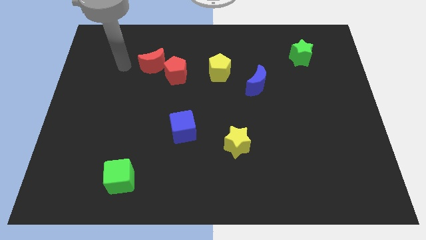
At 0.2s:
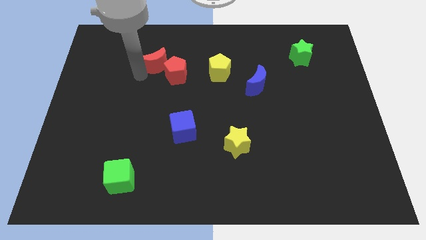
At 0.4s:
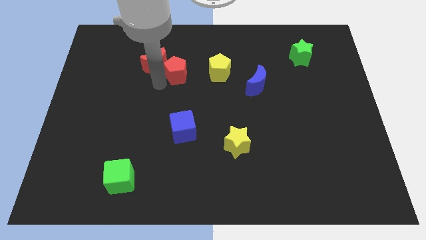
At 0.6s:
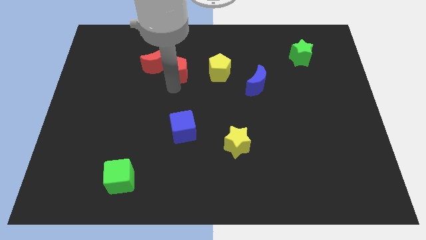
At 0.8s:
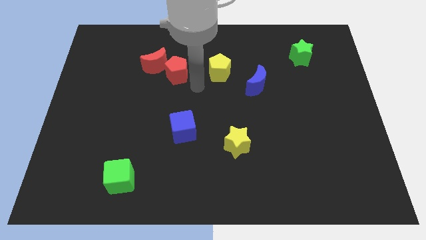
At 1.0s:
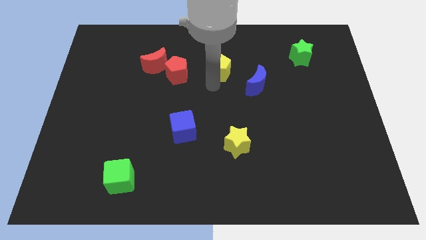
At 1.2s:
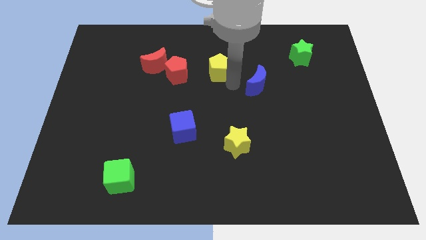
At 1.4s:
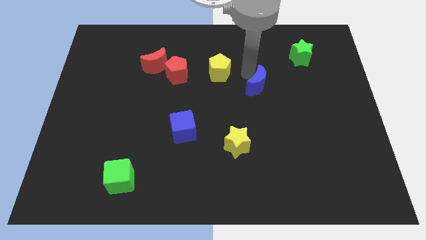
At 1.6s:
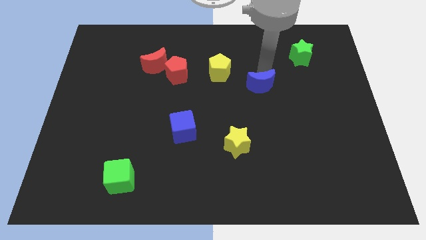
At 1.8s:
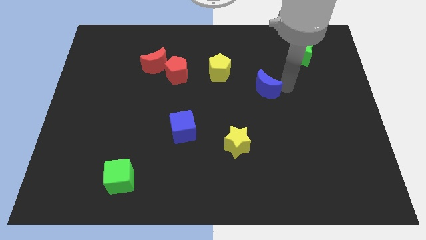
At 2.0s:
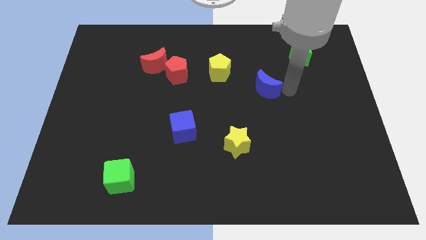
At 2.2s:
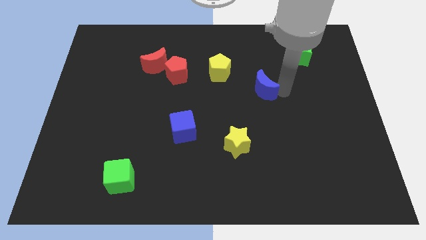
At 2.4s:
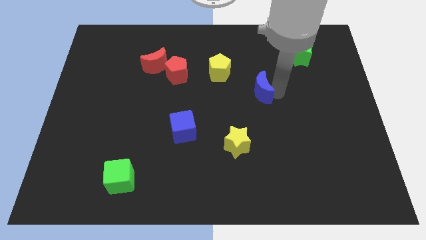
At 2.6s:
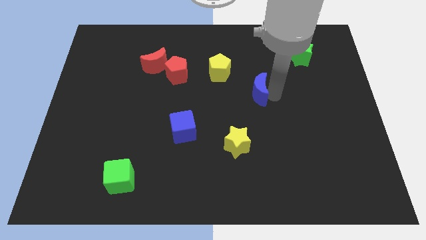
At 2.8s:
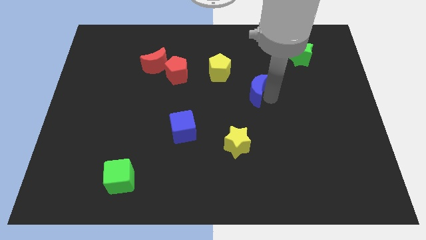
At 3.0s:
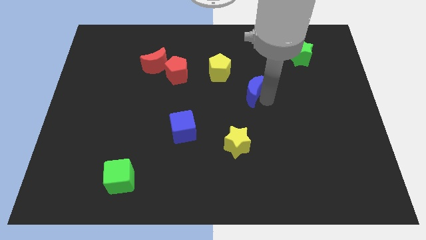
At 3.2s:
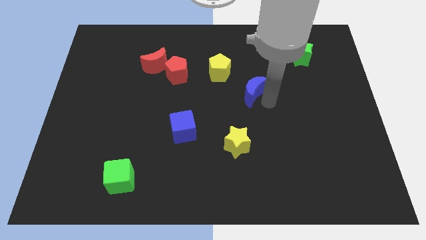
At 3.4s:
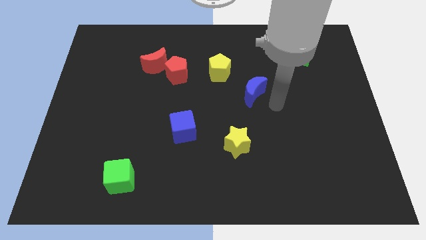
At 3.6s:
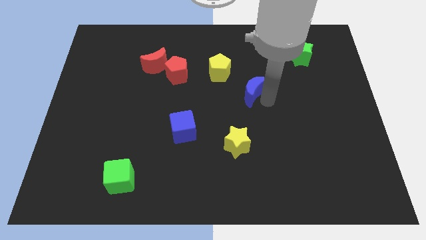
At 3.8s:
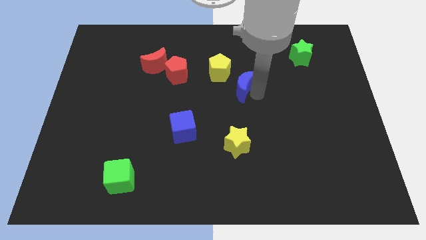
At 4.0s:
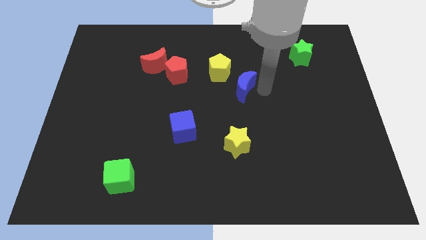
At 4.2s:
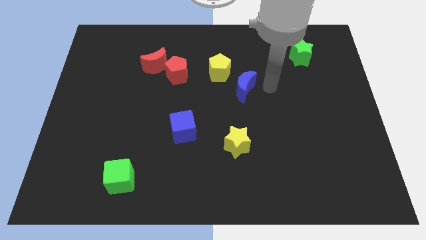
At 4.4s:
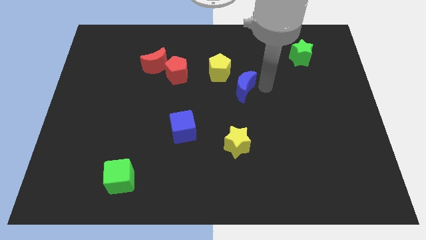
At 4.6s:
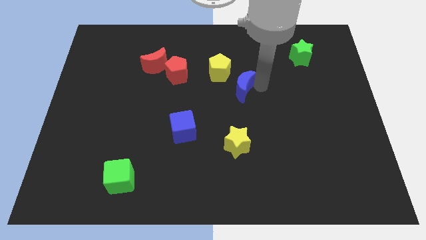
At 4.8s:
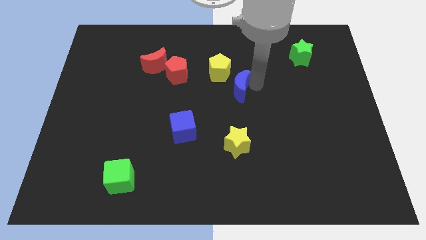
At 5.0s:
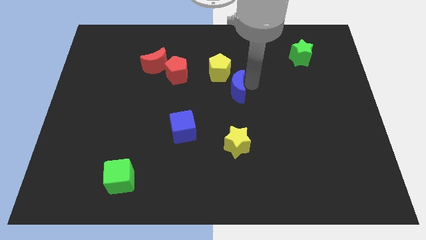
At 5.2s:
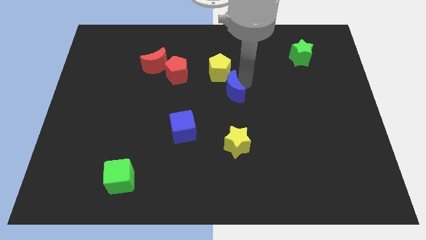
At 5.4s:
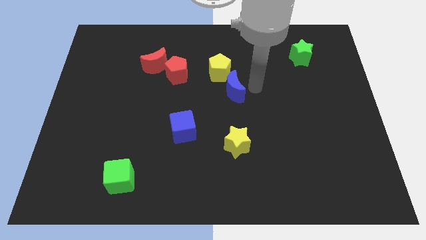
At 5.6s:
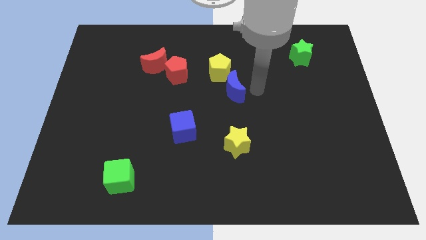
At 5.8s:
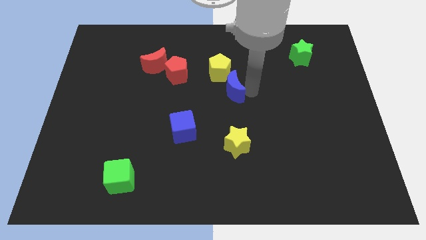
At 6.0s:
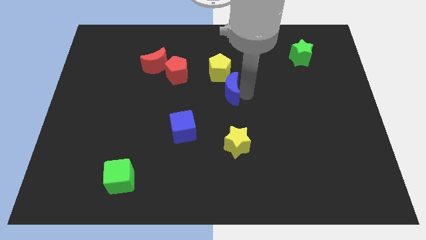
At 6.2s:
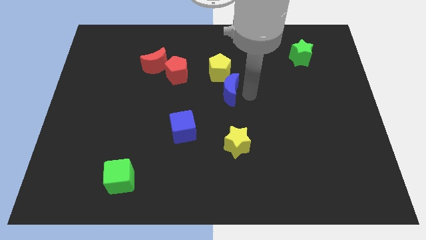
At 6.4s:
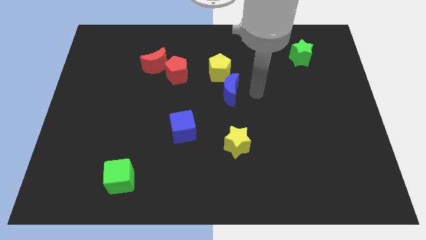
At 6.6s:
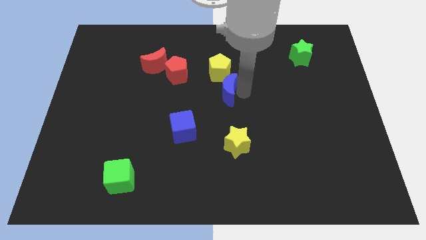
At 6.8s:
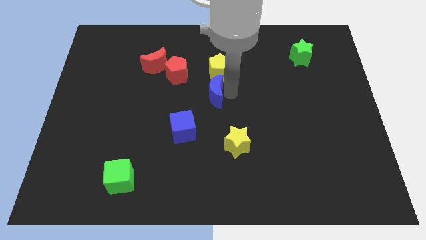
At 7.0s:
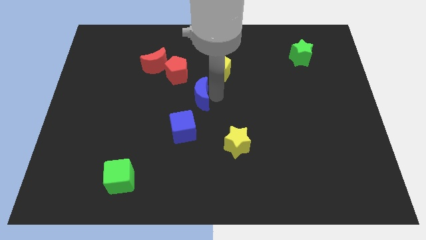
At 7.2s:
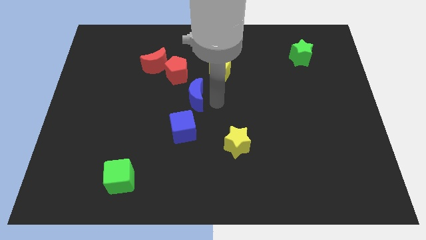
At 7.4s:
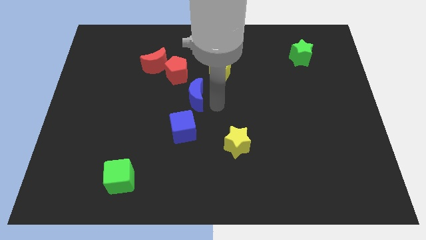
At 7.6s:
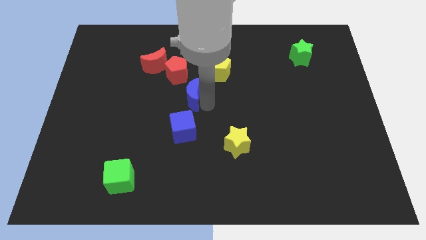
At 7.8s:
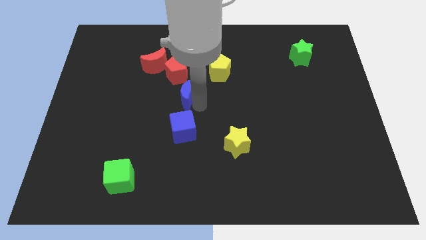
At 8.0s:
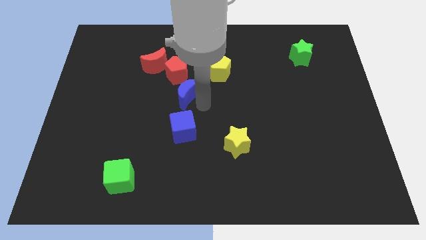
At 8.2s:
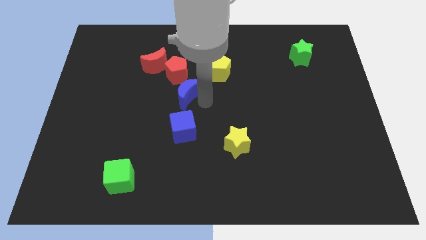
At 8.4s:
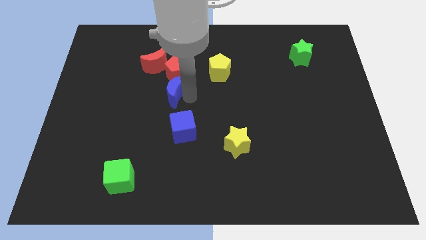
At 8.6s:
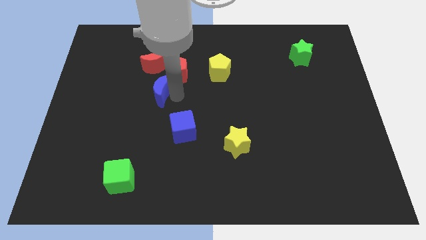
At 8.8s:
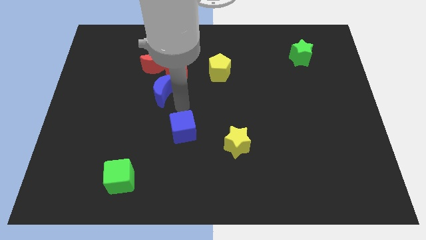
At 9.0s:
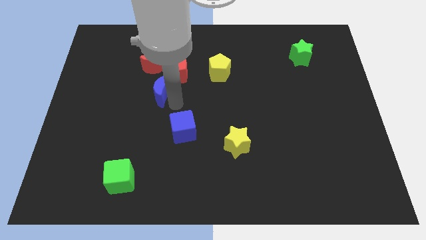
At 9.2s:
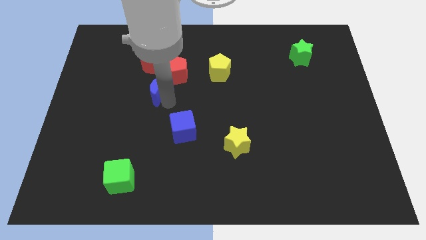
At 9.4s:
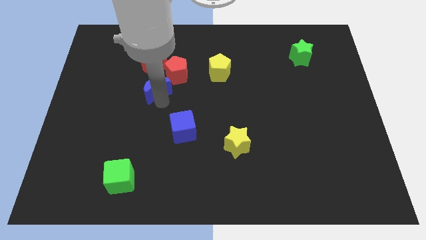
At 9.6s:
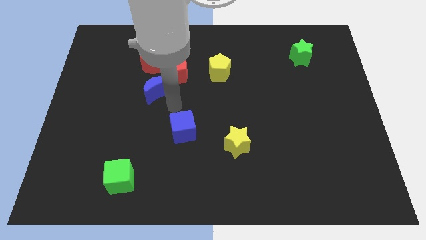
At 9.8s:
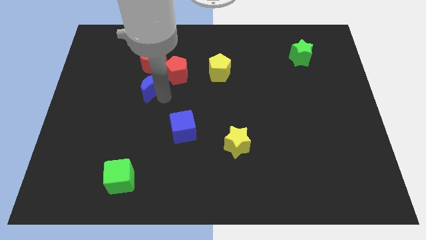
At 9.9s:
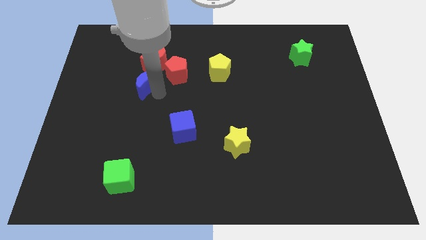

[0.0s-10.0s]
slide the blue moon to the left of the red pentagon

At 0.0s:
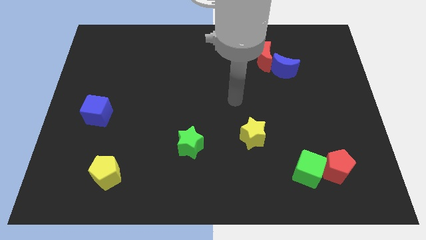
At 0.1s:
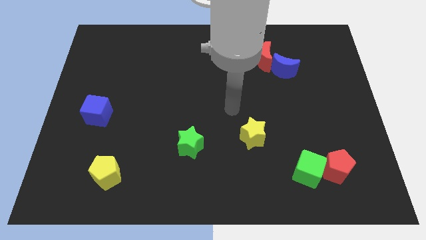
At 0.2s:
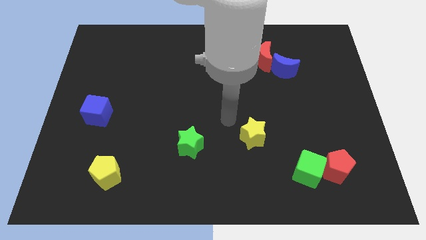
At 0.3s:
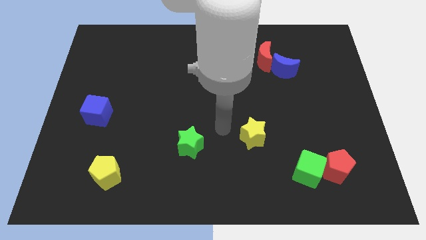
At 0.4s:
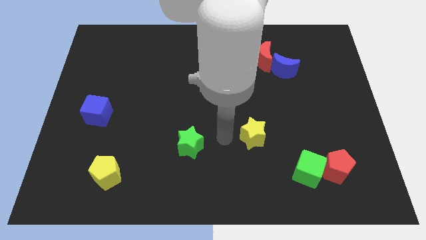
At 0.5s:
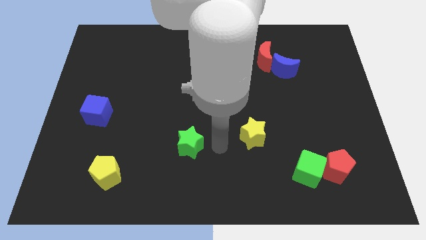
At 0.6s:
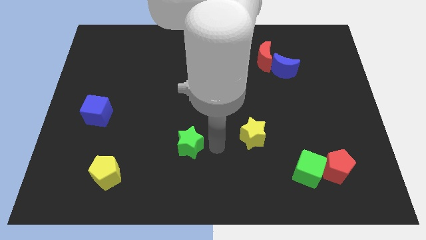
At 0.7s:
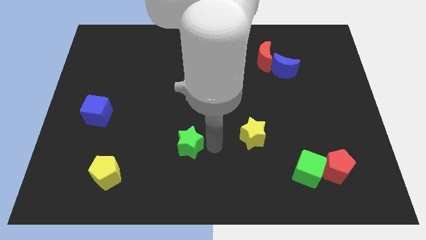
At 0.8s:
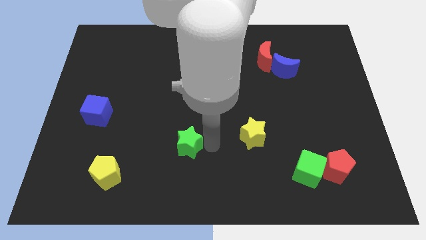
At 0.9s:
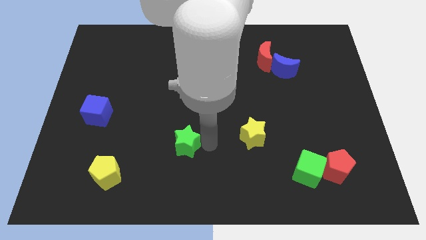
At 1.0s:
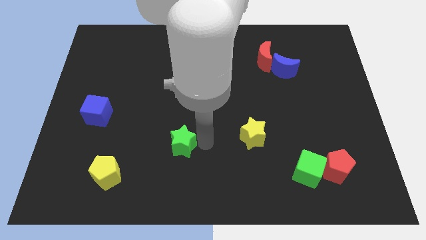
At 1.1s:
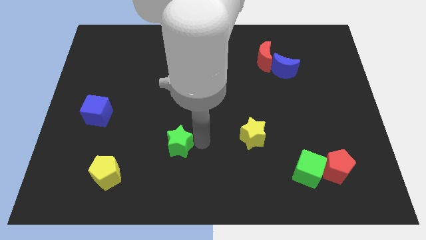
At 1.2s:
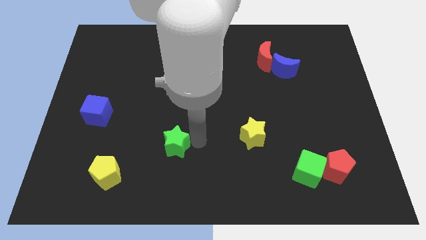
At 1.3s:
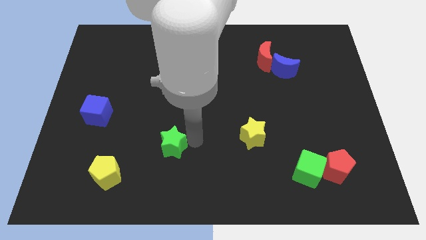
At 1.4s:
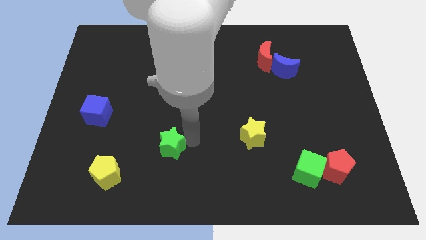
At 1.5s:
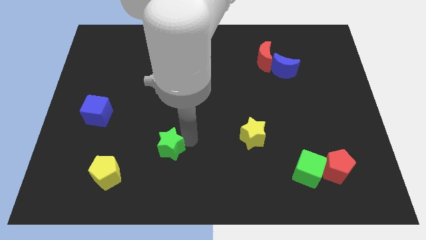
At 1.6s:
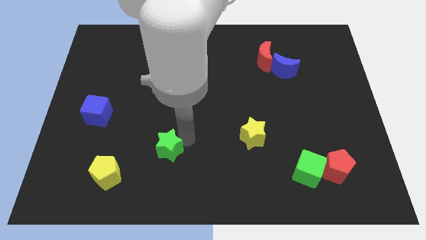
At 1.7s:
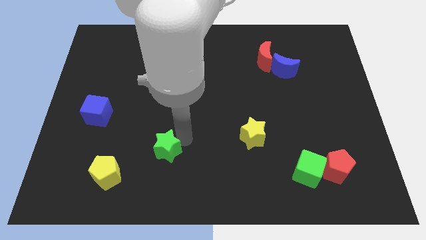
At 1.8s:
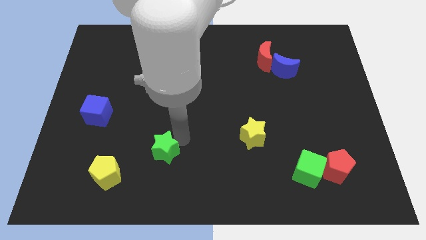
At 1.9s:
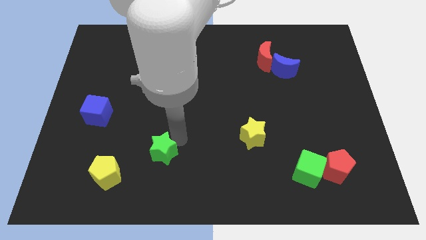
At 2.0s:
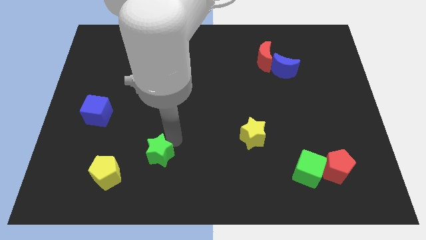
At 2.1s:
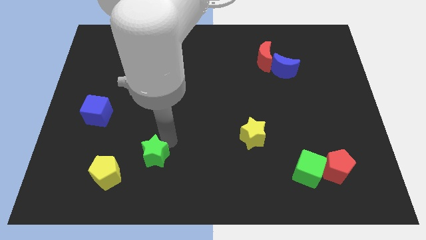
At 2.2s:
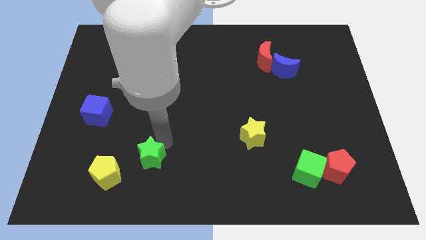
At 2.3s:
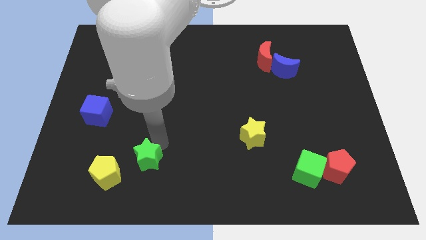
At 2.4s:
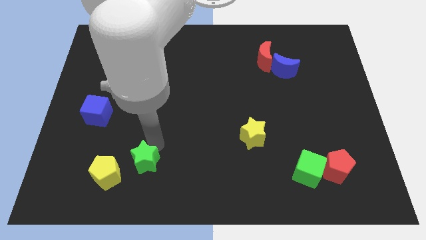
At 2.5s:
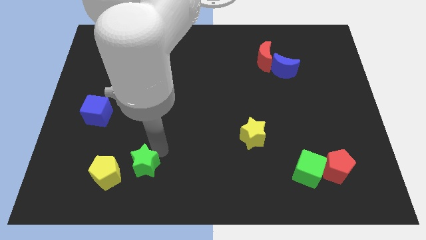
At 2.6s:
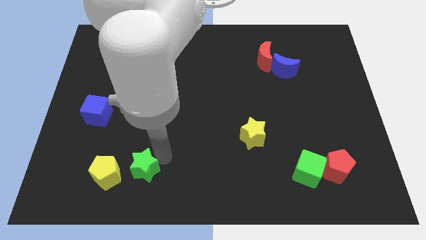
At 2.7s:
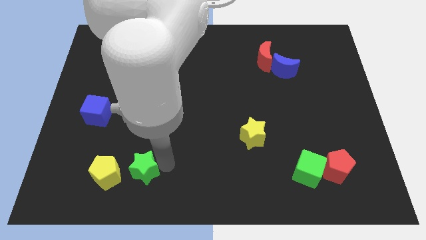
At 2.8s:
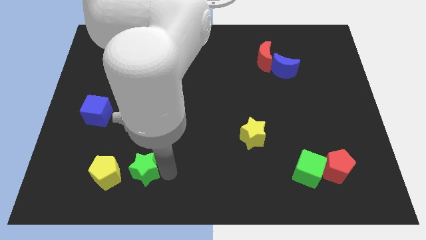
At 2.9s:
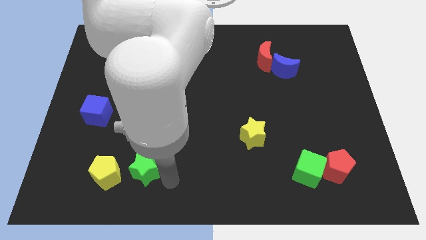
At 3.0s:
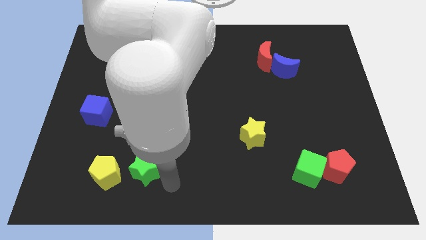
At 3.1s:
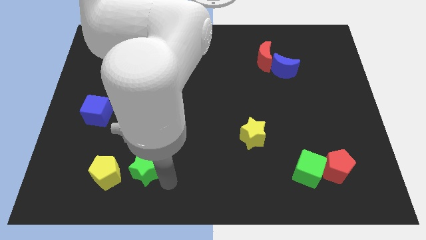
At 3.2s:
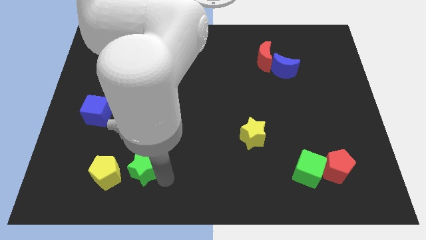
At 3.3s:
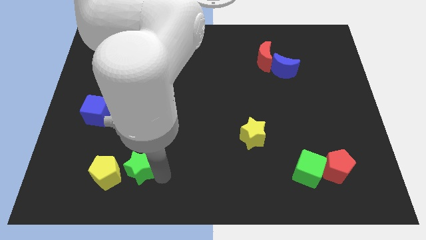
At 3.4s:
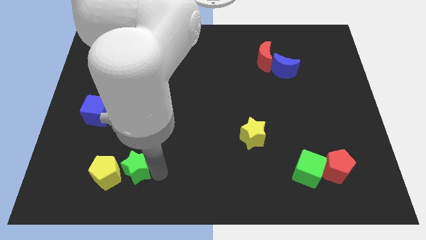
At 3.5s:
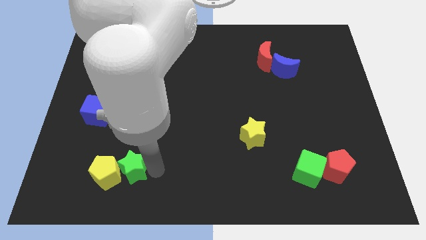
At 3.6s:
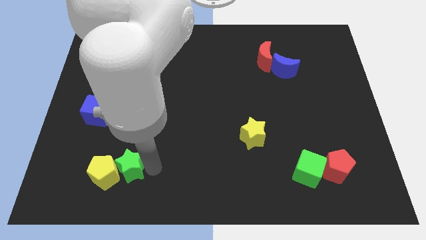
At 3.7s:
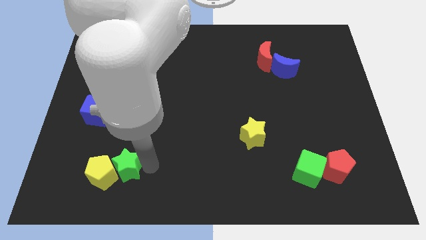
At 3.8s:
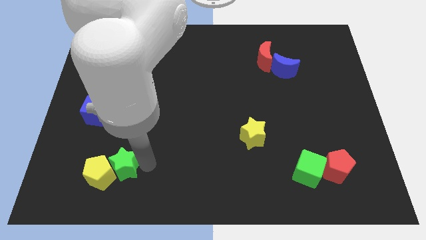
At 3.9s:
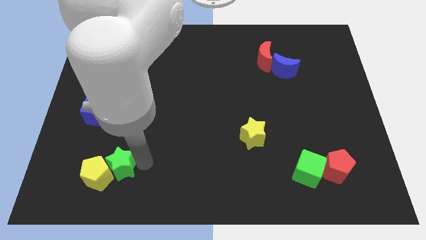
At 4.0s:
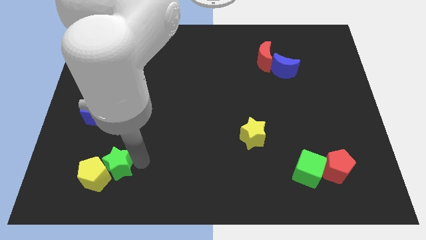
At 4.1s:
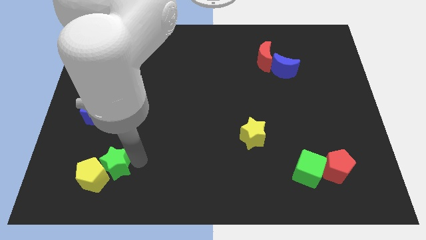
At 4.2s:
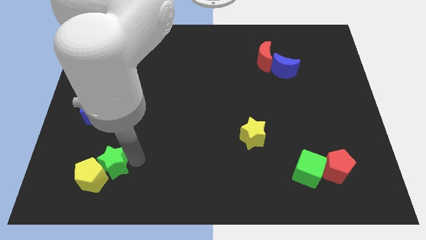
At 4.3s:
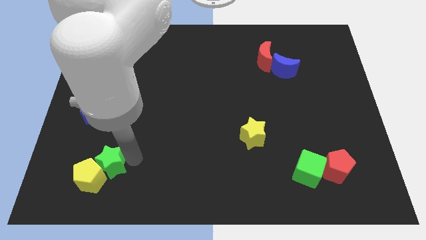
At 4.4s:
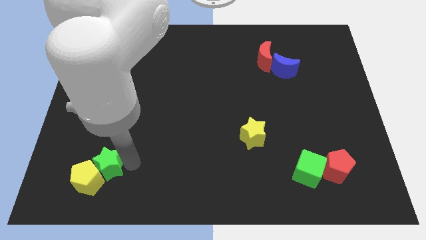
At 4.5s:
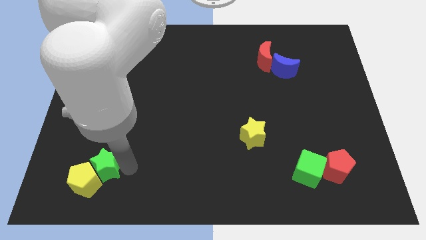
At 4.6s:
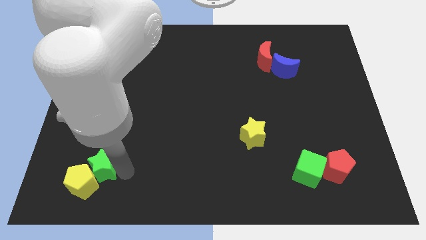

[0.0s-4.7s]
move the green star below the blue cube
